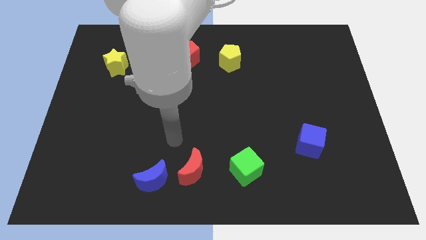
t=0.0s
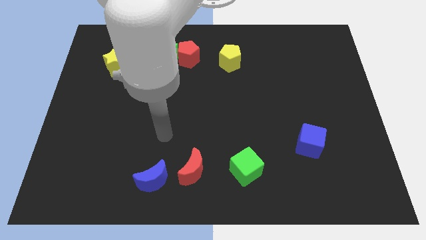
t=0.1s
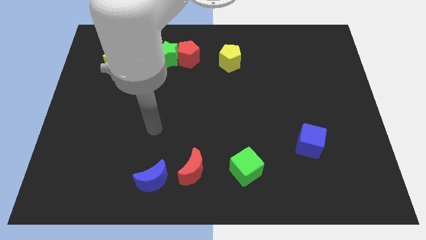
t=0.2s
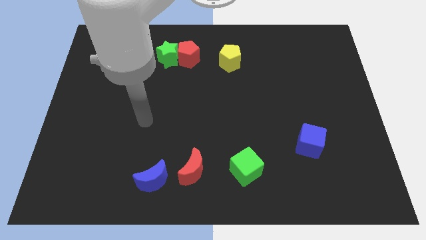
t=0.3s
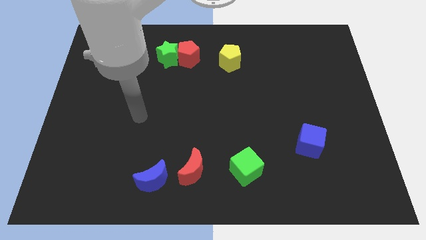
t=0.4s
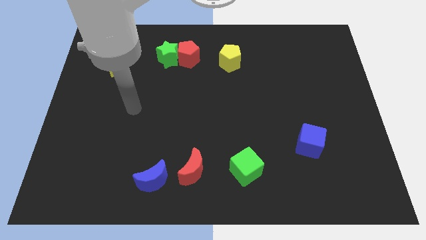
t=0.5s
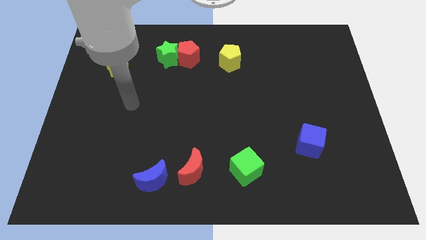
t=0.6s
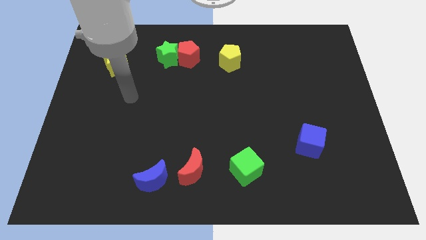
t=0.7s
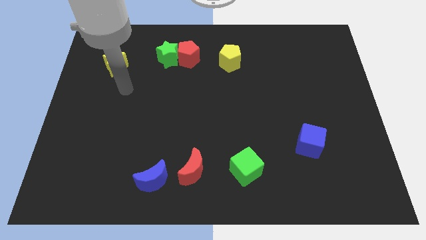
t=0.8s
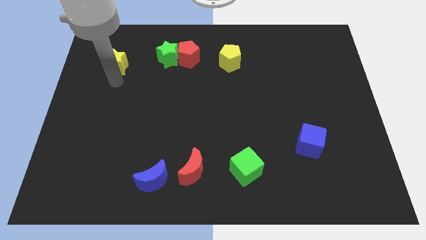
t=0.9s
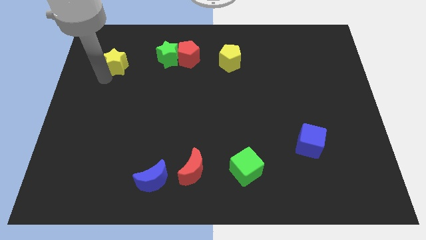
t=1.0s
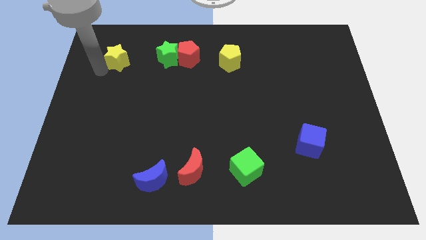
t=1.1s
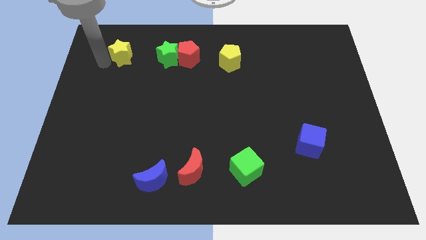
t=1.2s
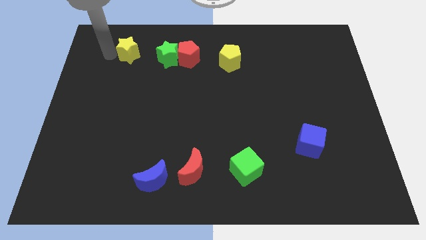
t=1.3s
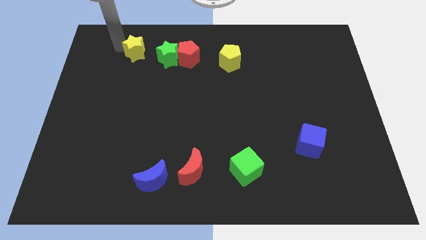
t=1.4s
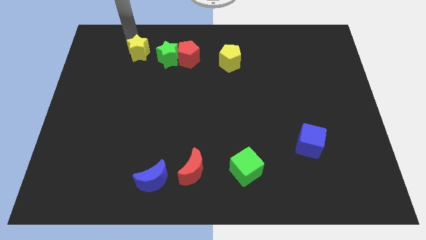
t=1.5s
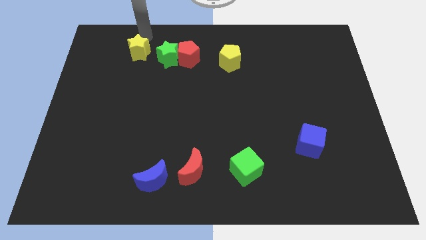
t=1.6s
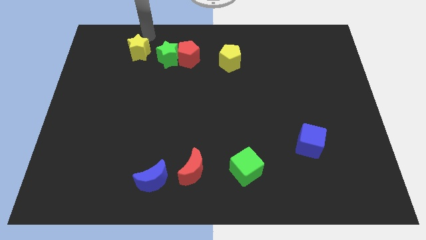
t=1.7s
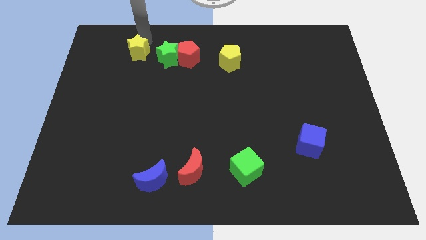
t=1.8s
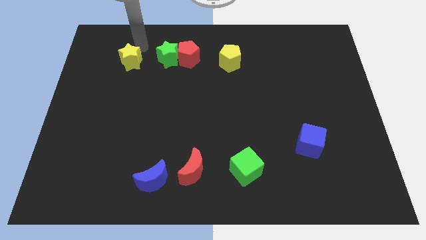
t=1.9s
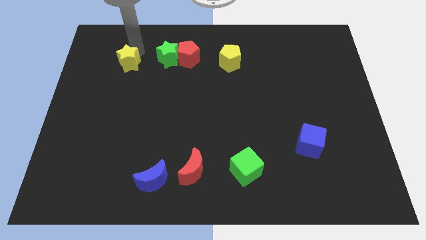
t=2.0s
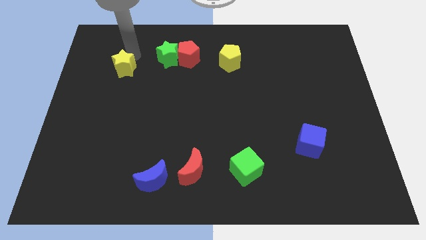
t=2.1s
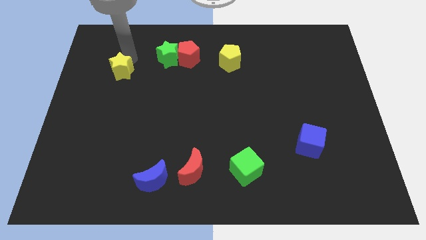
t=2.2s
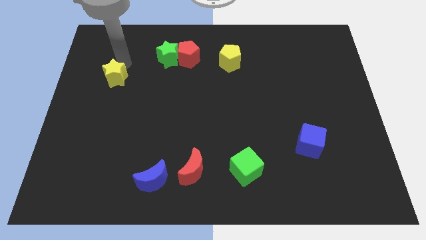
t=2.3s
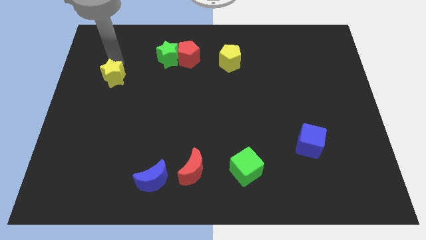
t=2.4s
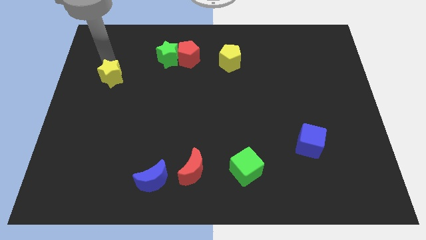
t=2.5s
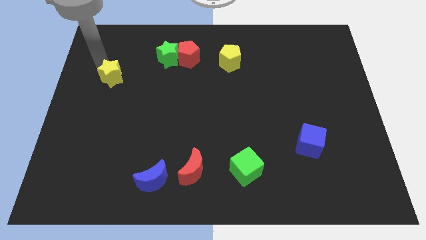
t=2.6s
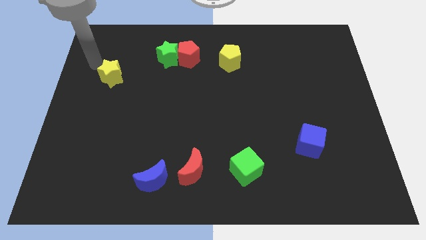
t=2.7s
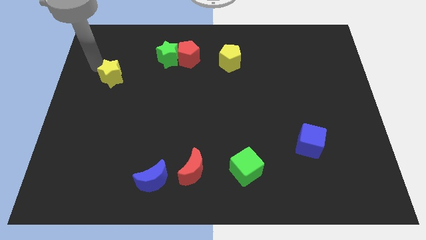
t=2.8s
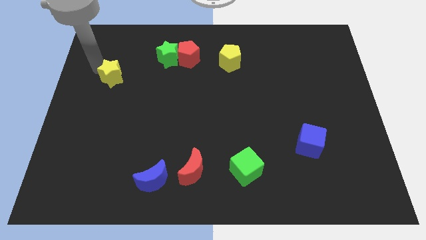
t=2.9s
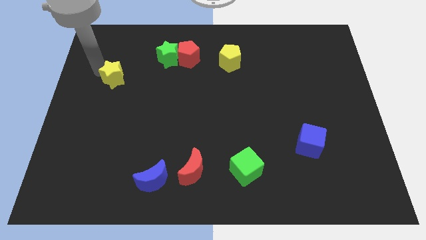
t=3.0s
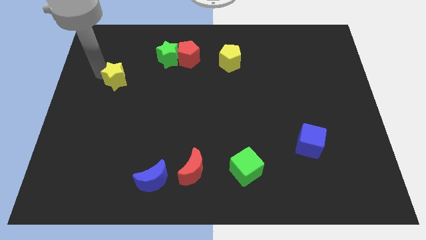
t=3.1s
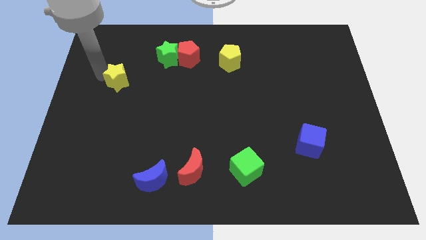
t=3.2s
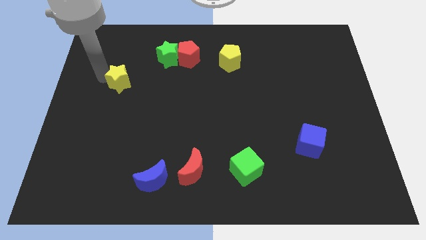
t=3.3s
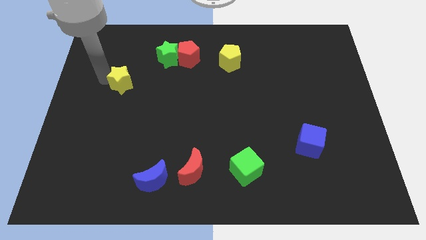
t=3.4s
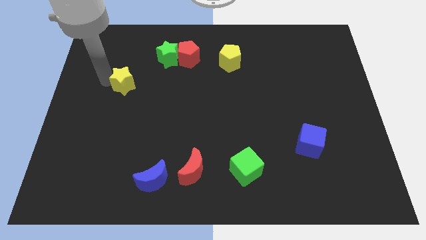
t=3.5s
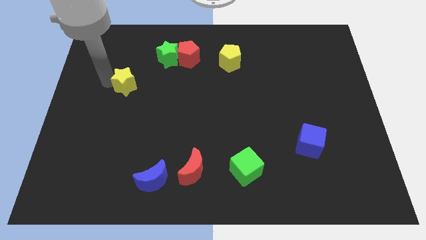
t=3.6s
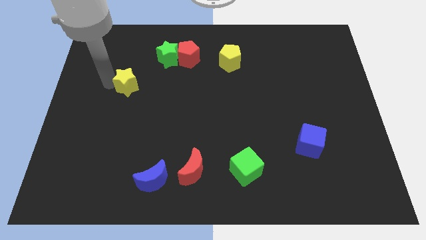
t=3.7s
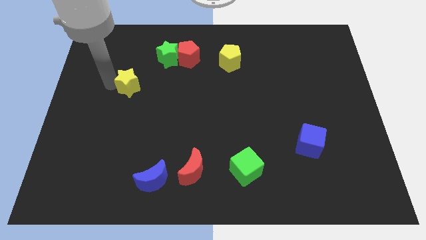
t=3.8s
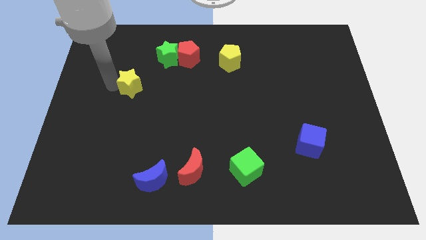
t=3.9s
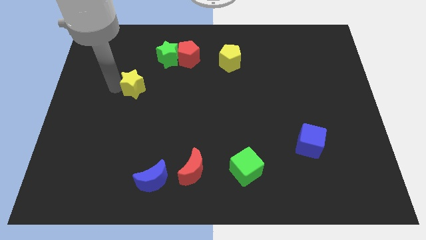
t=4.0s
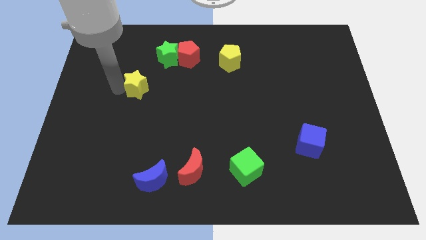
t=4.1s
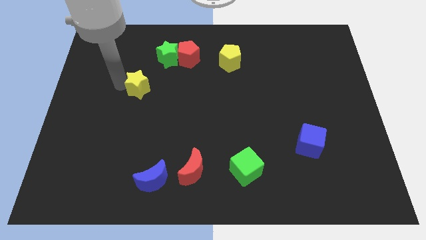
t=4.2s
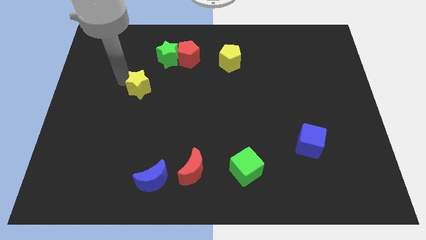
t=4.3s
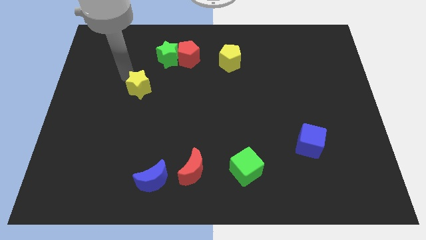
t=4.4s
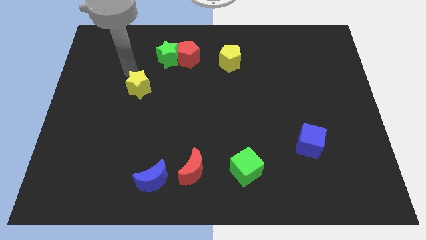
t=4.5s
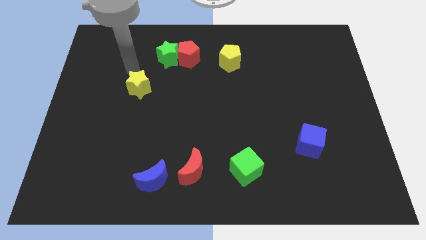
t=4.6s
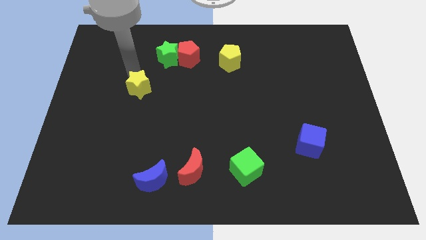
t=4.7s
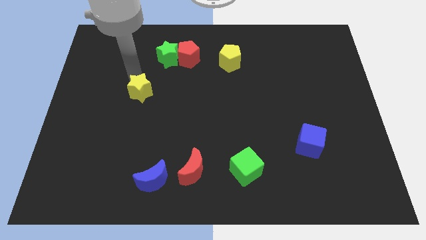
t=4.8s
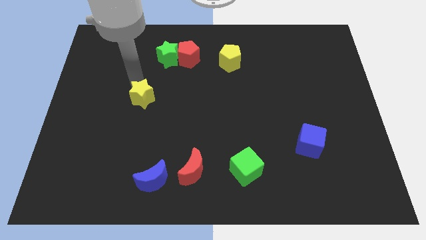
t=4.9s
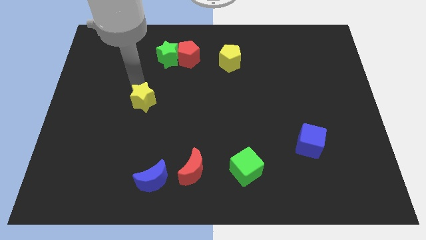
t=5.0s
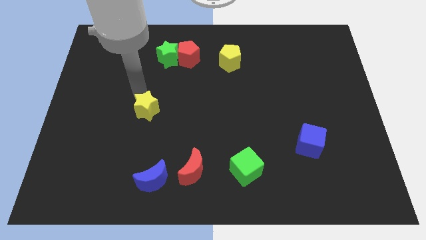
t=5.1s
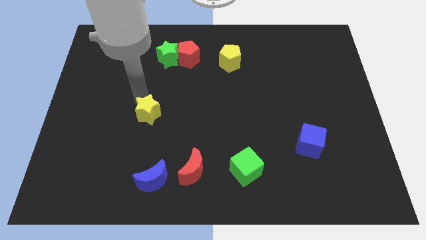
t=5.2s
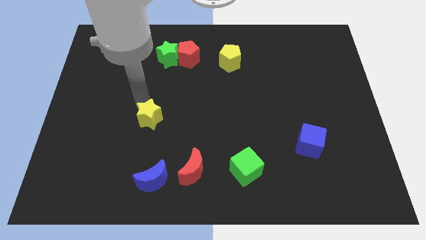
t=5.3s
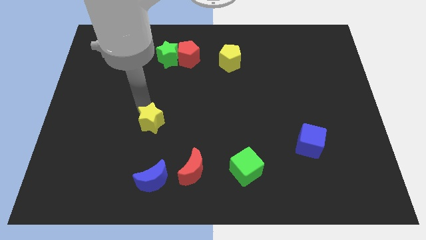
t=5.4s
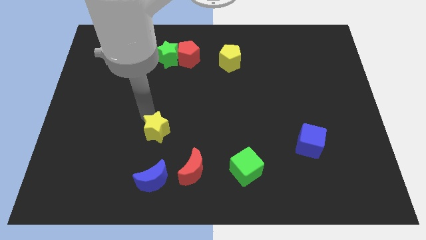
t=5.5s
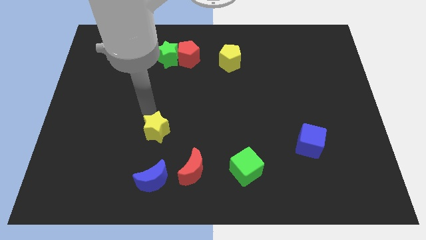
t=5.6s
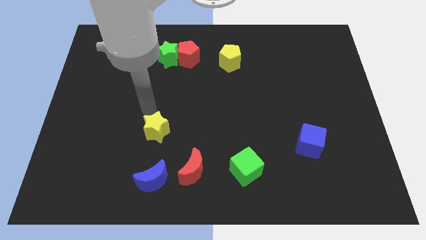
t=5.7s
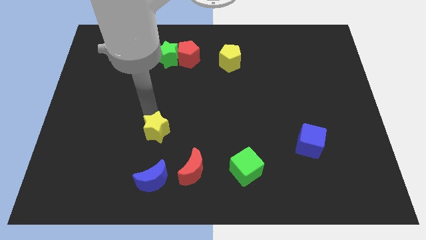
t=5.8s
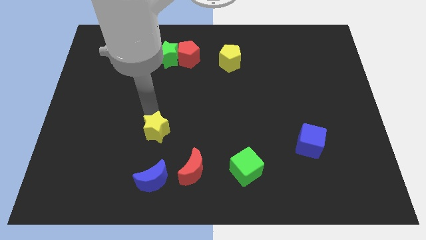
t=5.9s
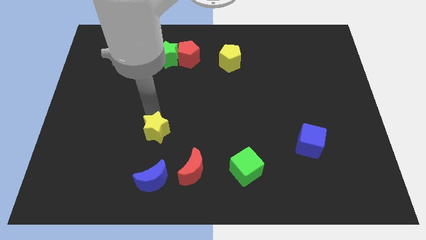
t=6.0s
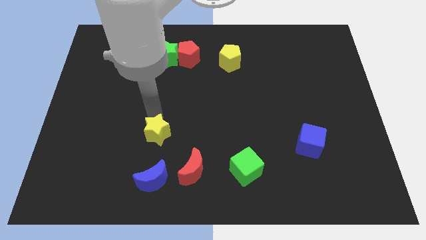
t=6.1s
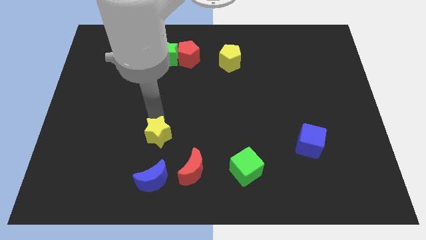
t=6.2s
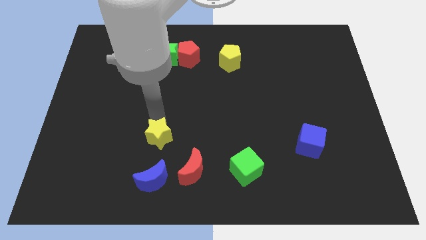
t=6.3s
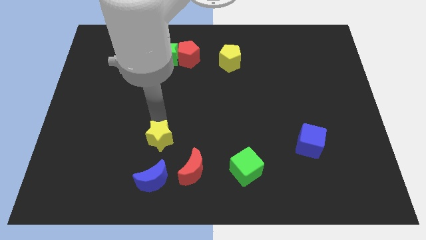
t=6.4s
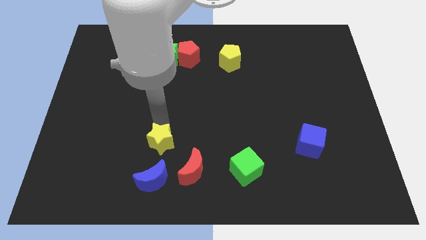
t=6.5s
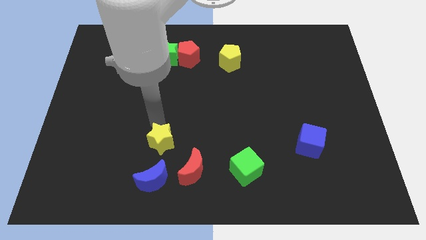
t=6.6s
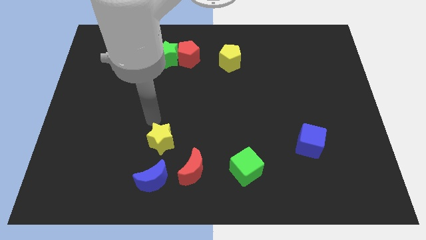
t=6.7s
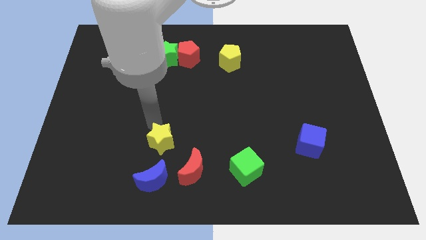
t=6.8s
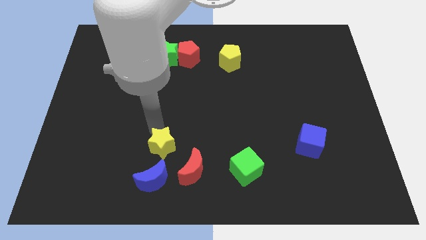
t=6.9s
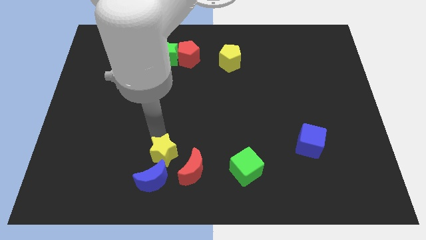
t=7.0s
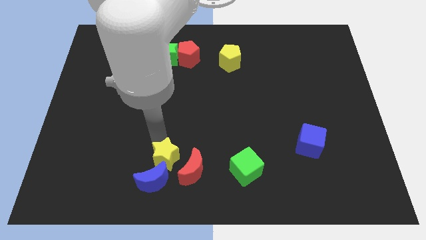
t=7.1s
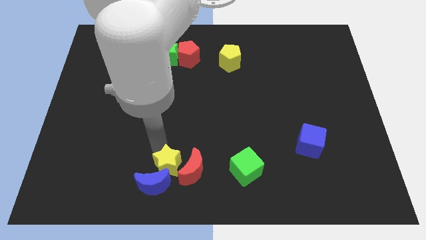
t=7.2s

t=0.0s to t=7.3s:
put the yellow star to the left of the green cube

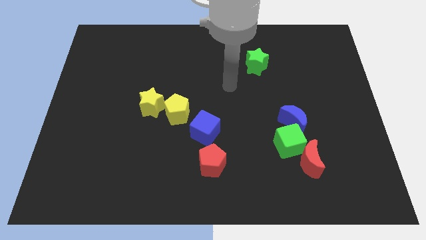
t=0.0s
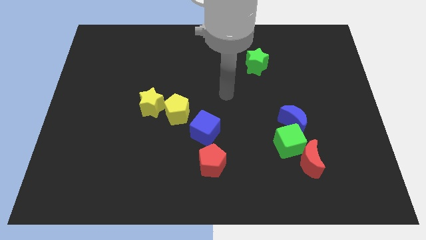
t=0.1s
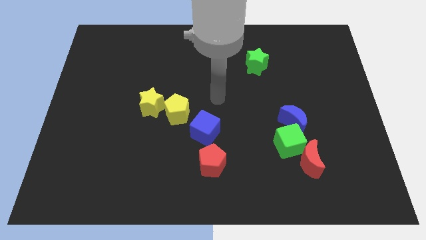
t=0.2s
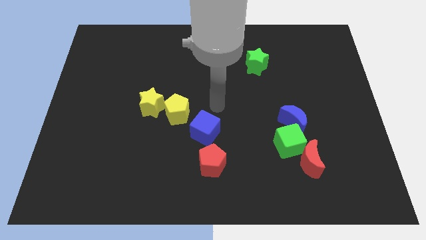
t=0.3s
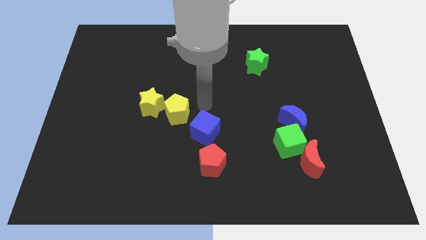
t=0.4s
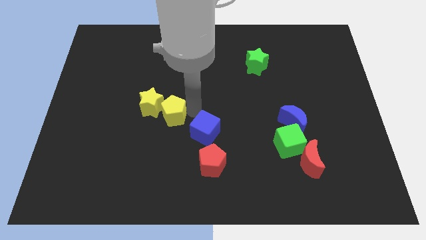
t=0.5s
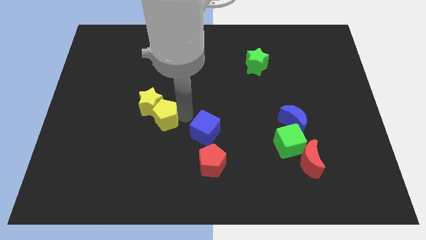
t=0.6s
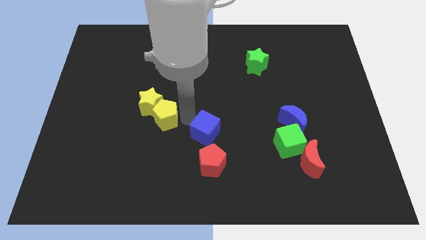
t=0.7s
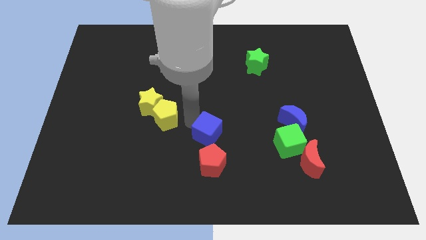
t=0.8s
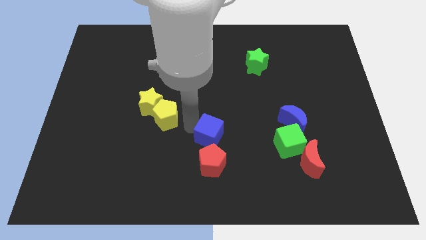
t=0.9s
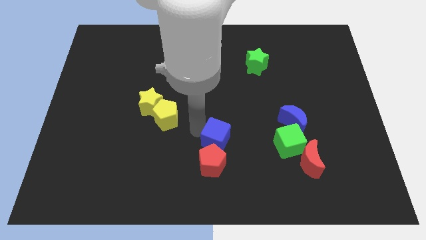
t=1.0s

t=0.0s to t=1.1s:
push the blue cube to the top right side of the red pentagon
